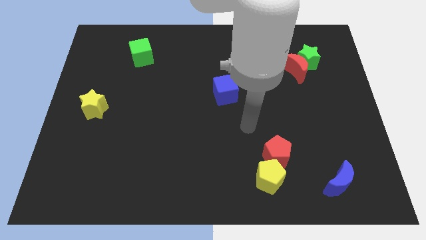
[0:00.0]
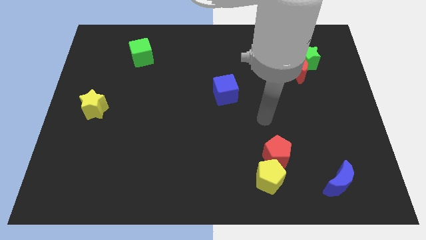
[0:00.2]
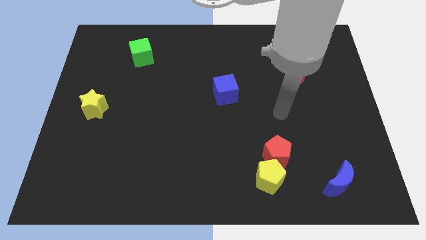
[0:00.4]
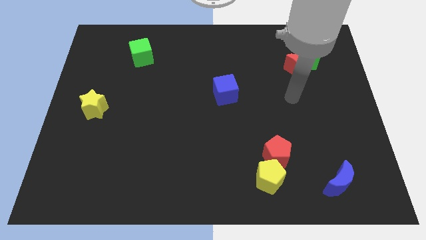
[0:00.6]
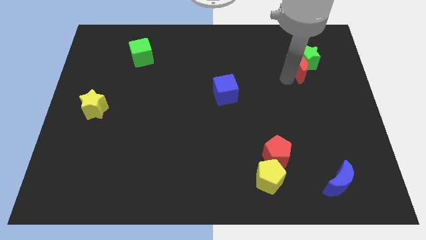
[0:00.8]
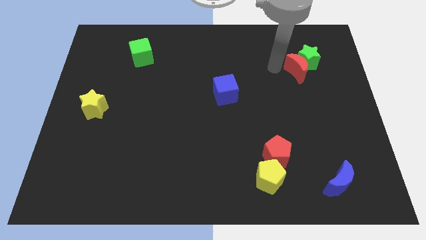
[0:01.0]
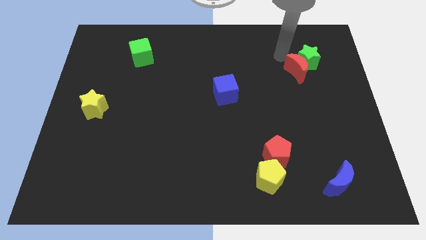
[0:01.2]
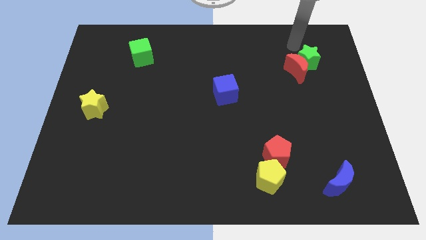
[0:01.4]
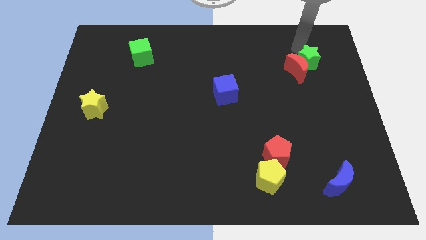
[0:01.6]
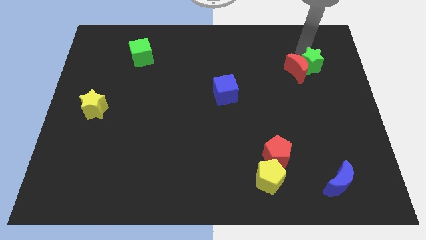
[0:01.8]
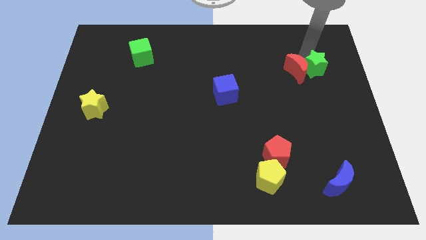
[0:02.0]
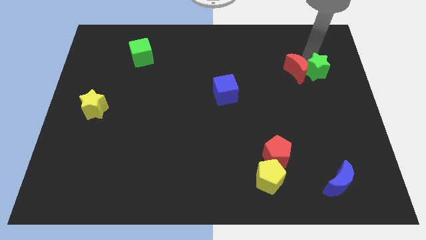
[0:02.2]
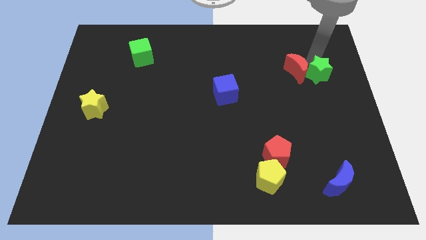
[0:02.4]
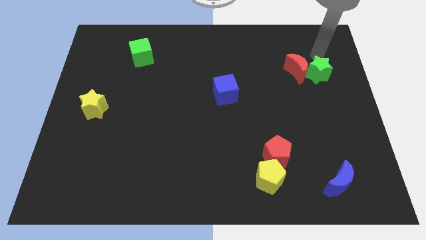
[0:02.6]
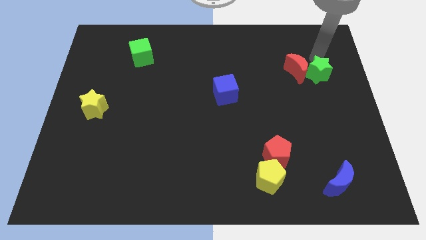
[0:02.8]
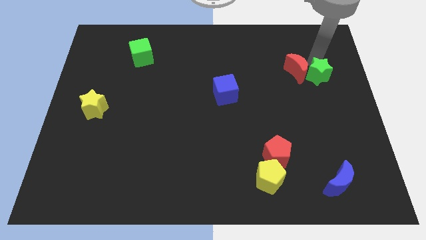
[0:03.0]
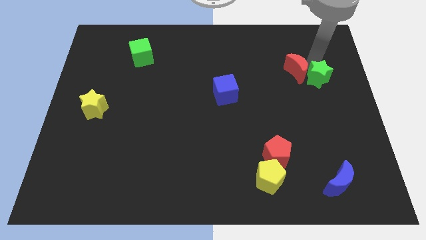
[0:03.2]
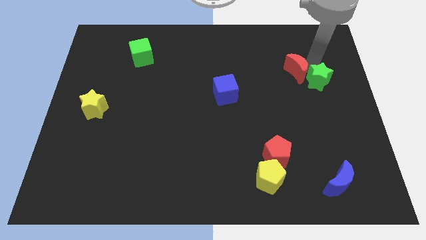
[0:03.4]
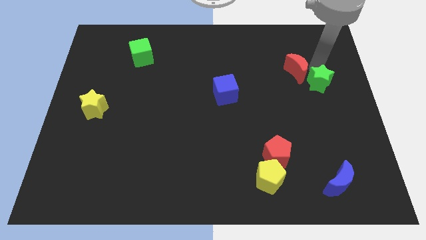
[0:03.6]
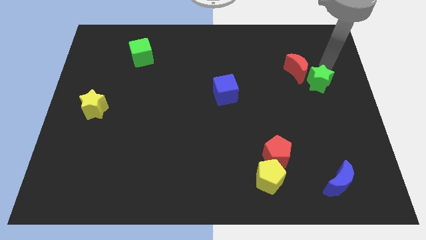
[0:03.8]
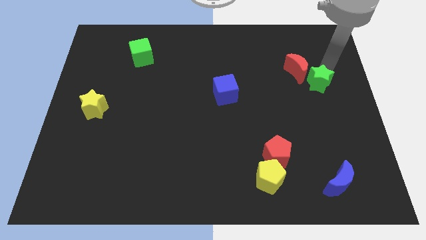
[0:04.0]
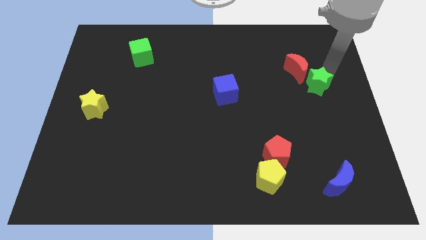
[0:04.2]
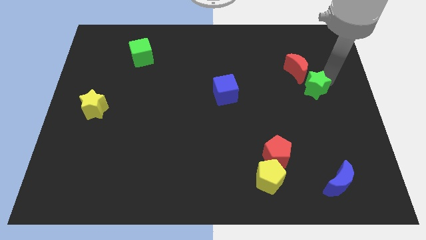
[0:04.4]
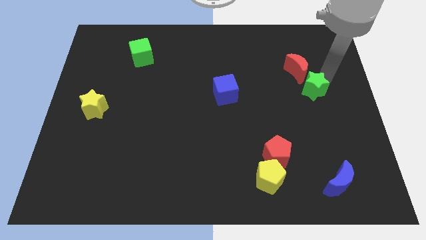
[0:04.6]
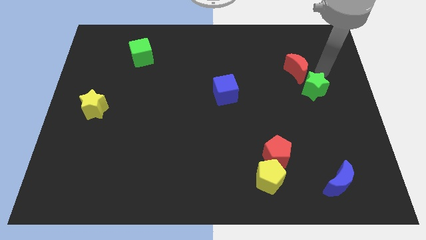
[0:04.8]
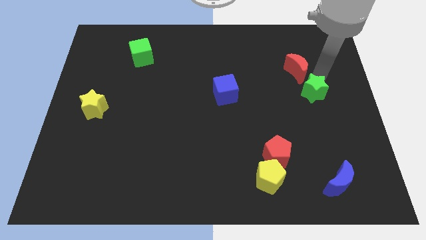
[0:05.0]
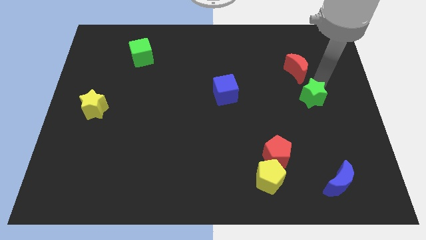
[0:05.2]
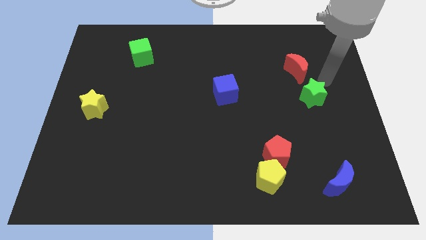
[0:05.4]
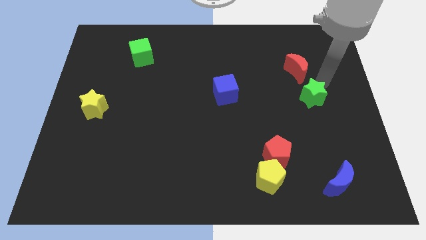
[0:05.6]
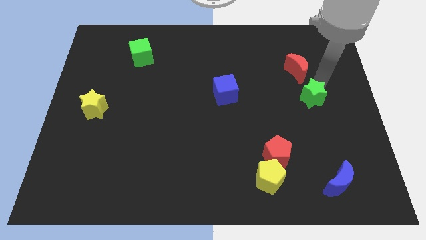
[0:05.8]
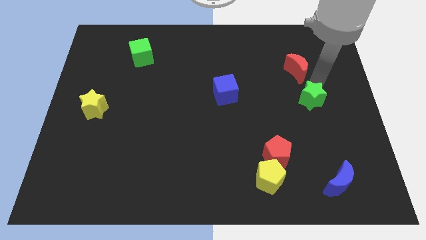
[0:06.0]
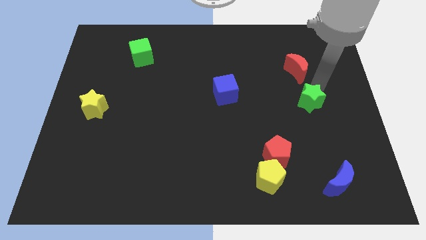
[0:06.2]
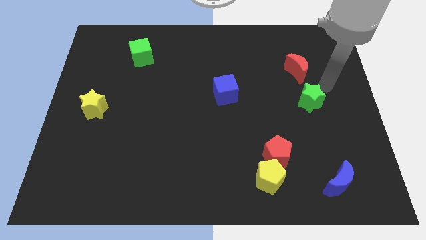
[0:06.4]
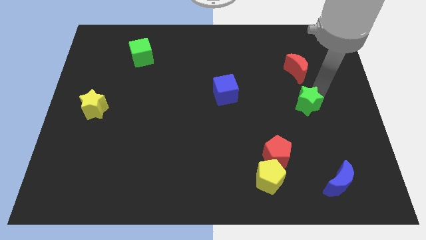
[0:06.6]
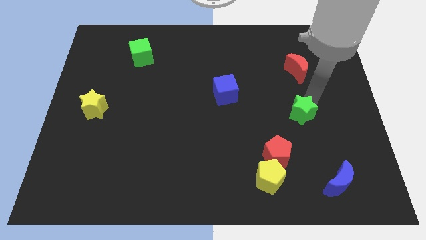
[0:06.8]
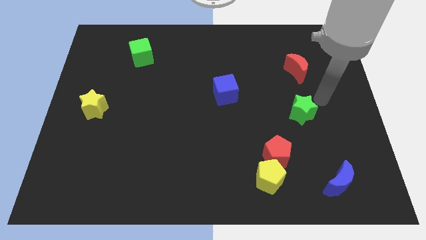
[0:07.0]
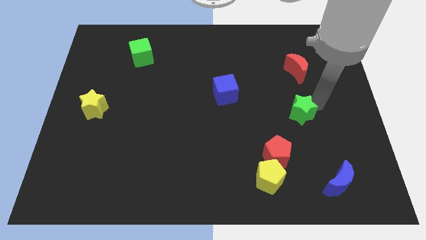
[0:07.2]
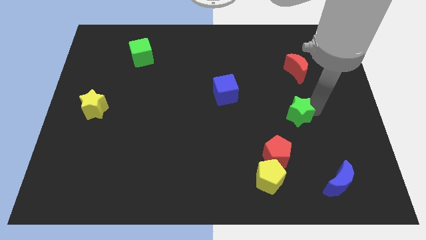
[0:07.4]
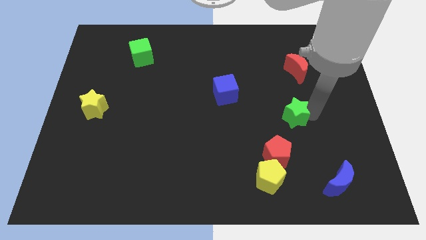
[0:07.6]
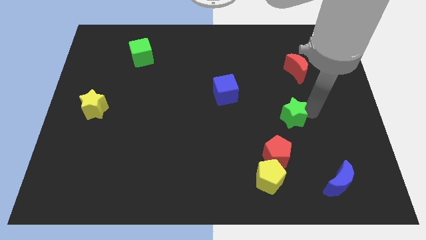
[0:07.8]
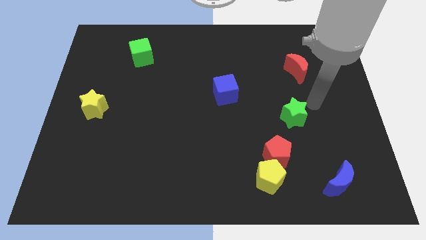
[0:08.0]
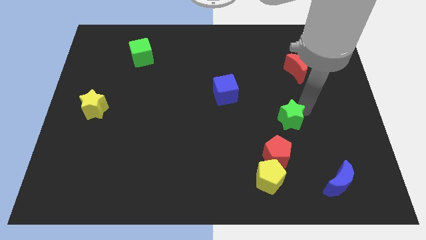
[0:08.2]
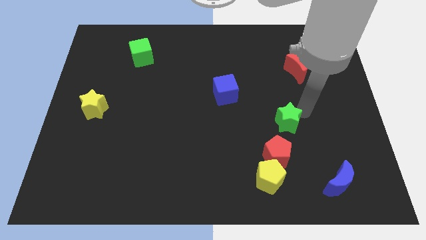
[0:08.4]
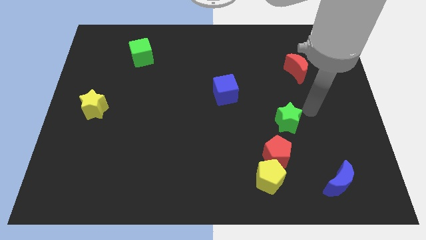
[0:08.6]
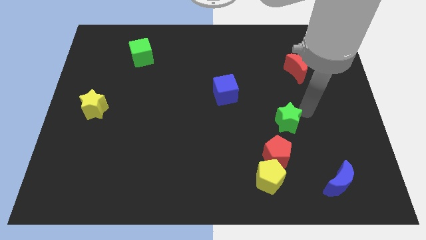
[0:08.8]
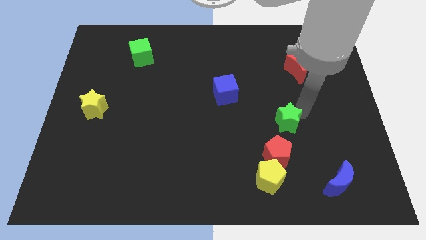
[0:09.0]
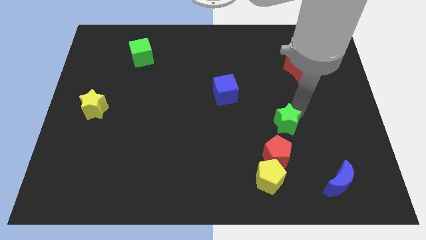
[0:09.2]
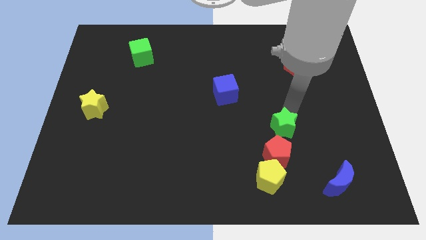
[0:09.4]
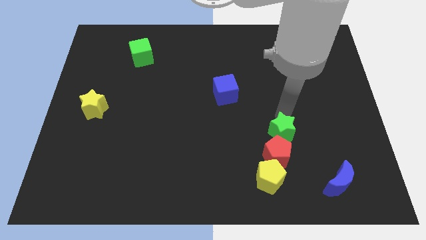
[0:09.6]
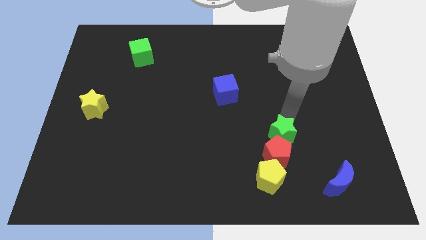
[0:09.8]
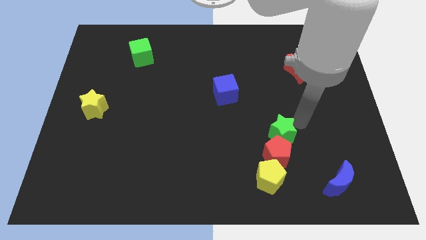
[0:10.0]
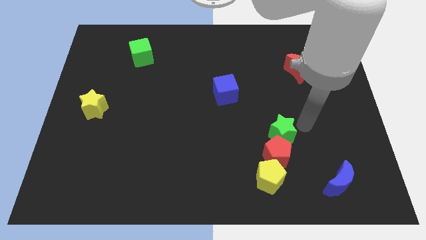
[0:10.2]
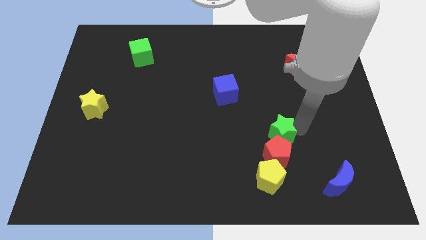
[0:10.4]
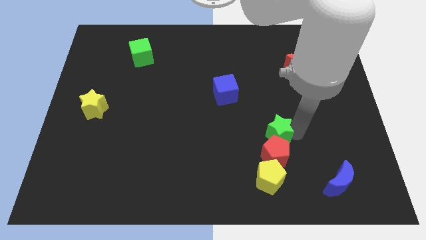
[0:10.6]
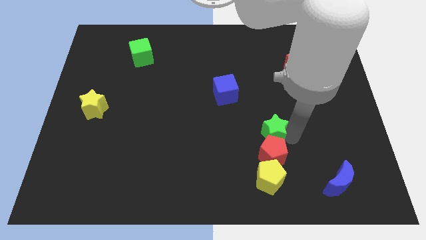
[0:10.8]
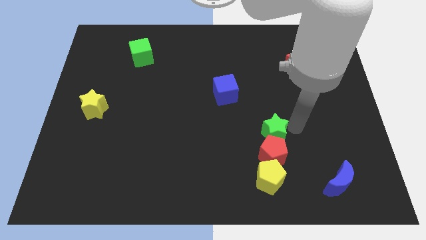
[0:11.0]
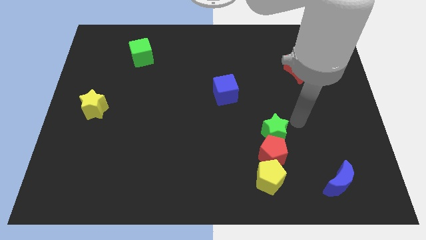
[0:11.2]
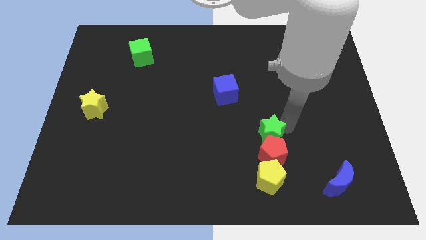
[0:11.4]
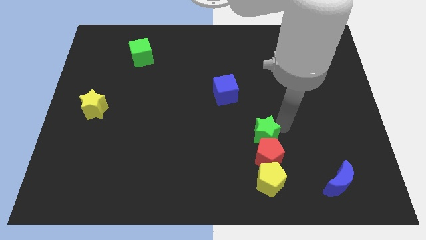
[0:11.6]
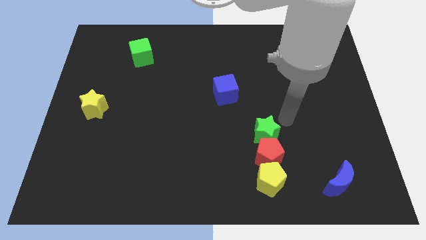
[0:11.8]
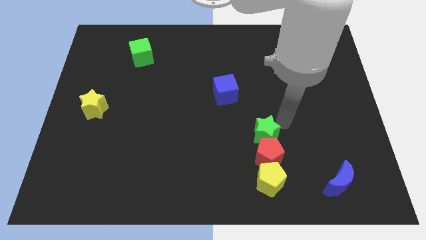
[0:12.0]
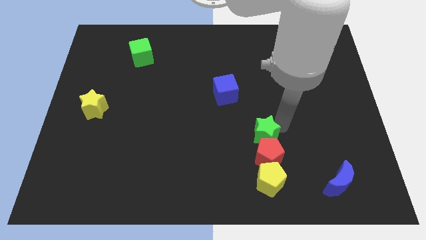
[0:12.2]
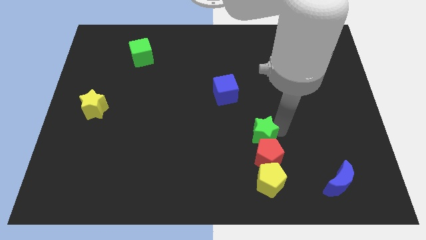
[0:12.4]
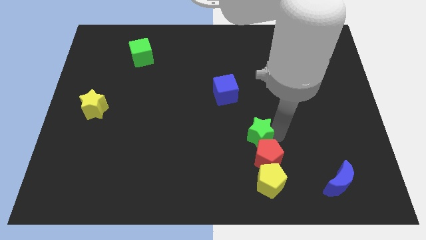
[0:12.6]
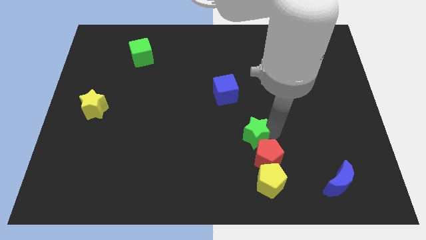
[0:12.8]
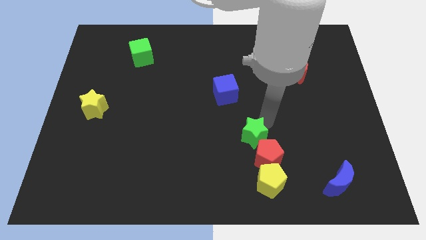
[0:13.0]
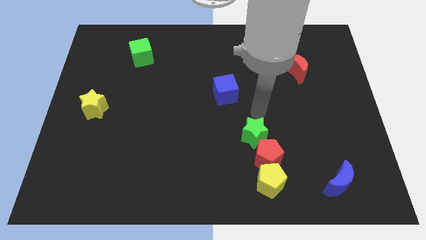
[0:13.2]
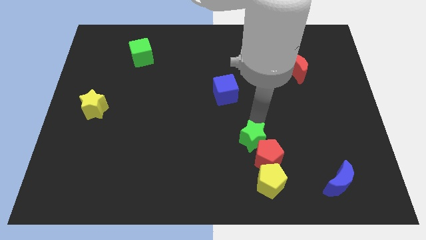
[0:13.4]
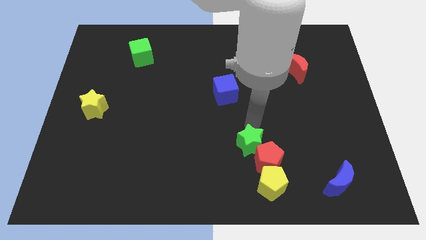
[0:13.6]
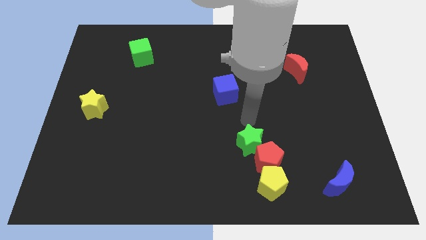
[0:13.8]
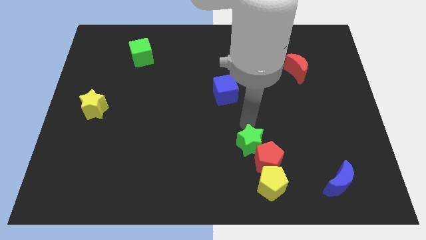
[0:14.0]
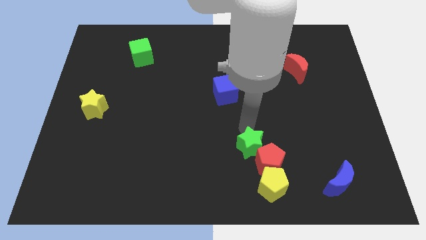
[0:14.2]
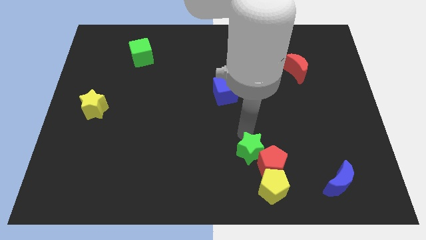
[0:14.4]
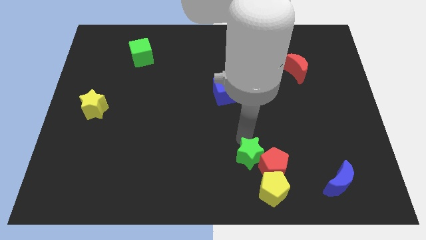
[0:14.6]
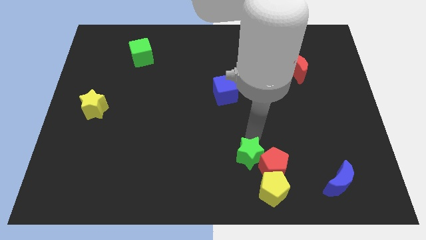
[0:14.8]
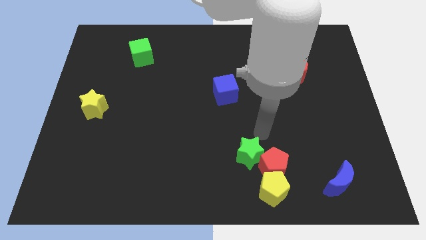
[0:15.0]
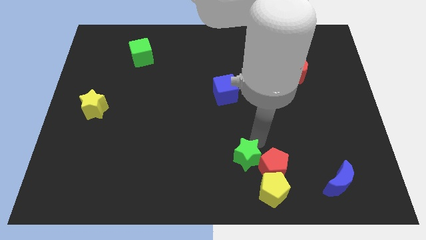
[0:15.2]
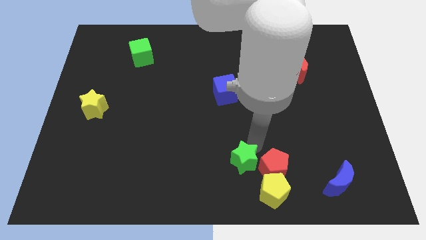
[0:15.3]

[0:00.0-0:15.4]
push the green star to the bottom

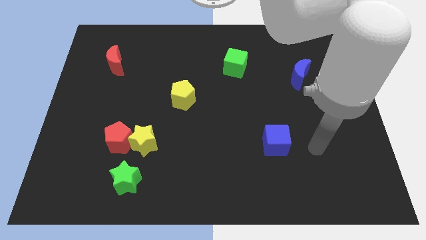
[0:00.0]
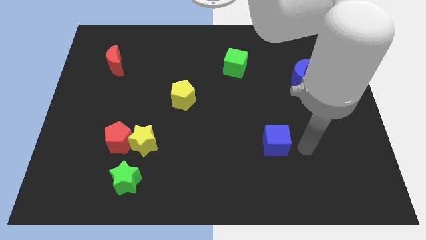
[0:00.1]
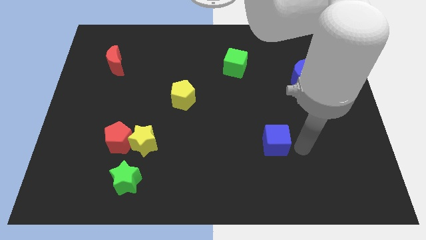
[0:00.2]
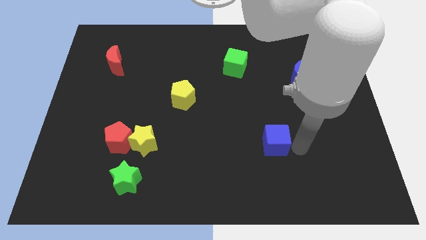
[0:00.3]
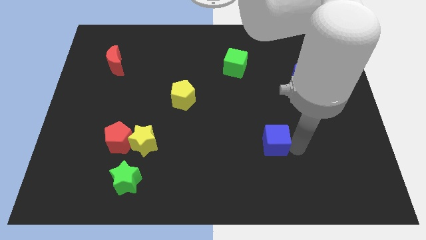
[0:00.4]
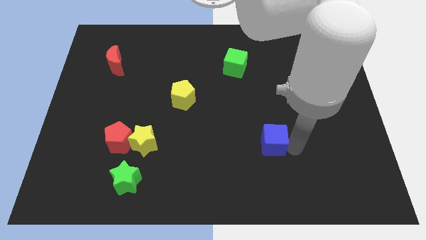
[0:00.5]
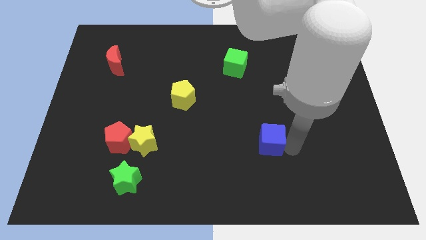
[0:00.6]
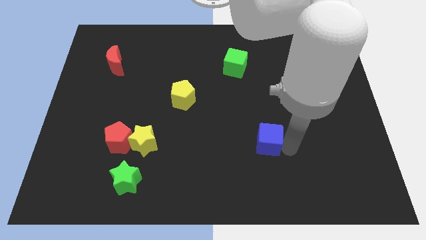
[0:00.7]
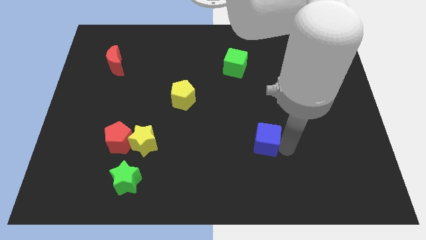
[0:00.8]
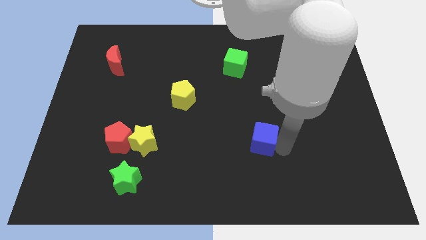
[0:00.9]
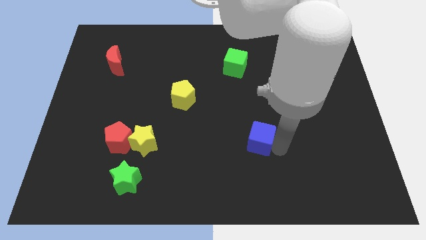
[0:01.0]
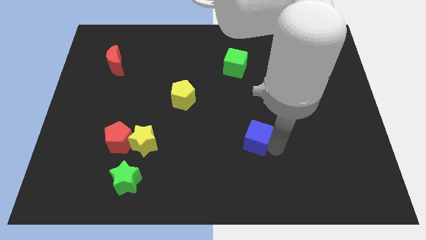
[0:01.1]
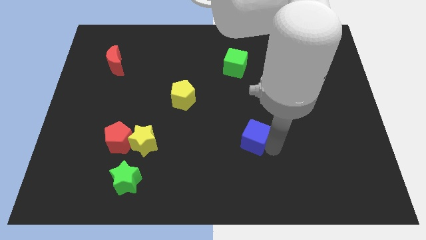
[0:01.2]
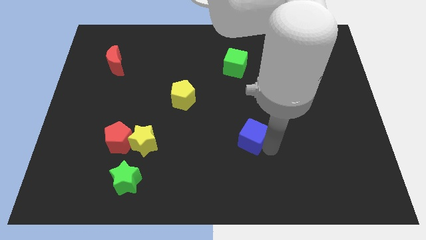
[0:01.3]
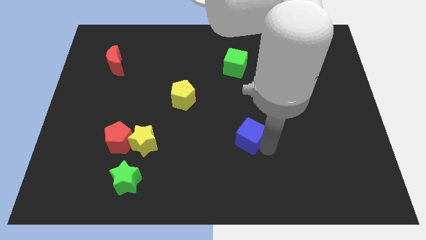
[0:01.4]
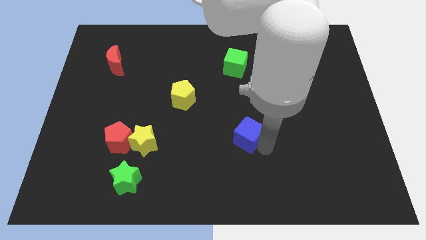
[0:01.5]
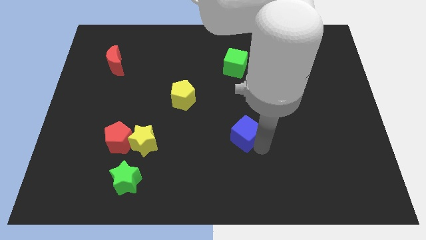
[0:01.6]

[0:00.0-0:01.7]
put the blue cube to the center
